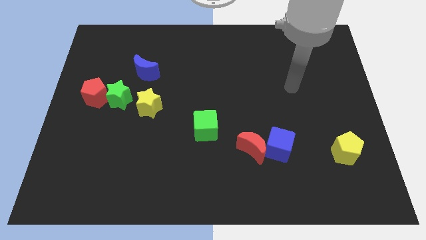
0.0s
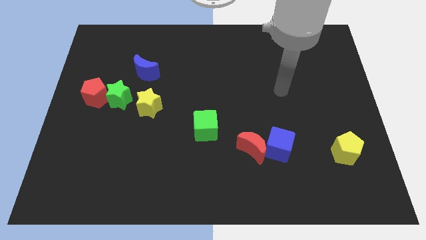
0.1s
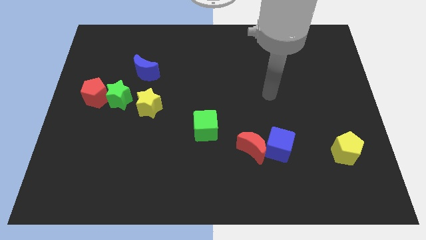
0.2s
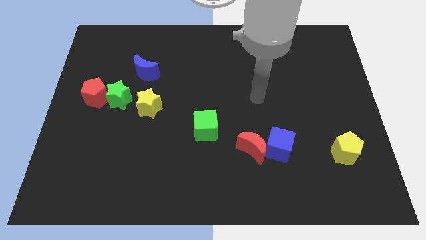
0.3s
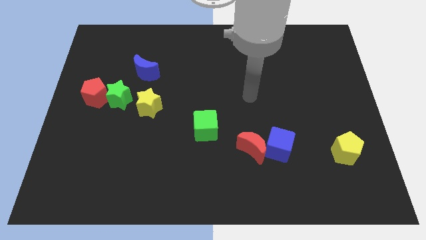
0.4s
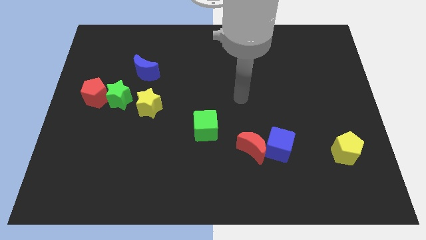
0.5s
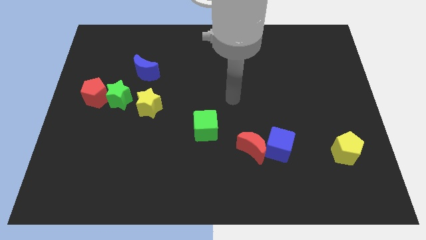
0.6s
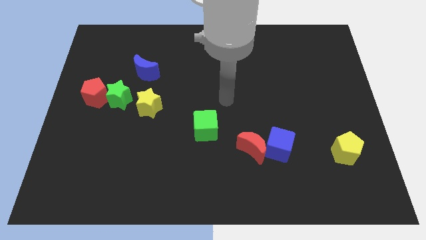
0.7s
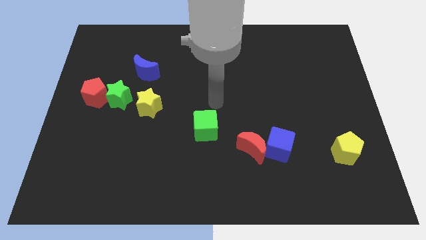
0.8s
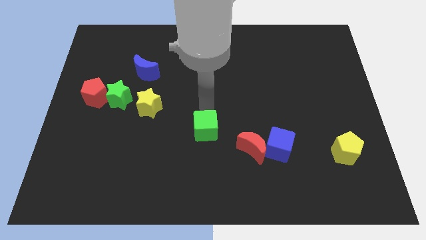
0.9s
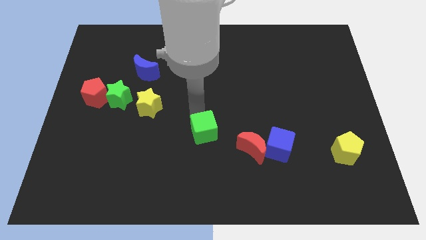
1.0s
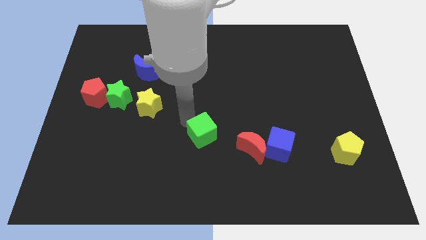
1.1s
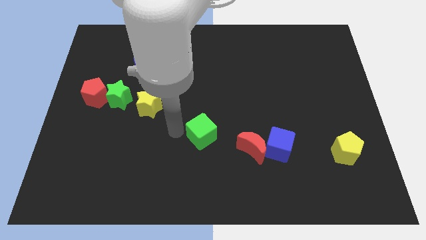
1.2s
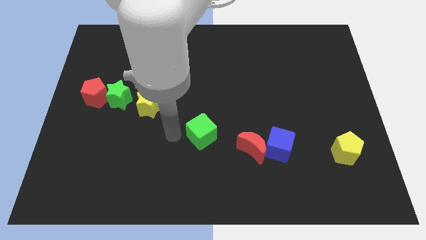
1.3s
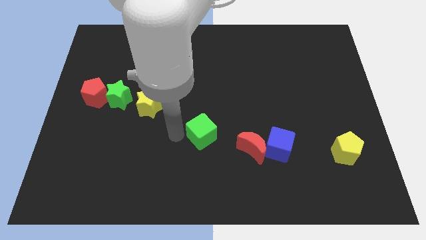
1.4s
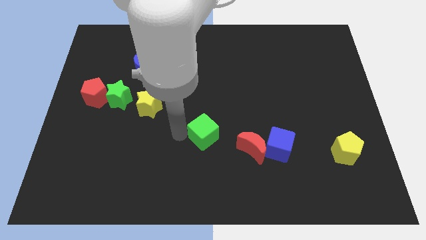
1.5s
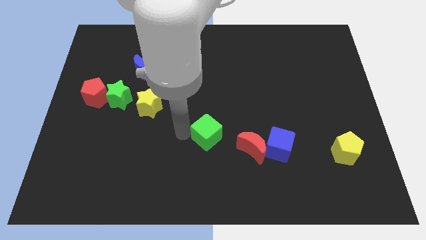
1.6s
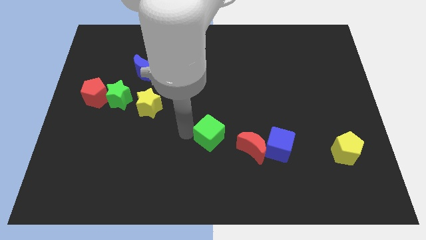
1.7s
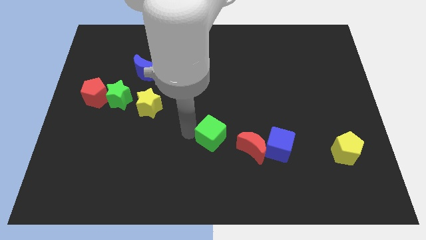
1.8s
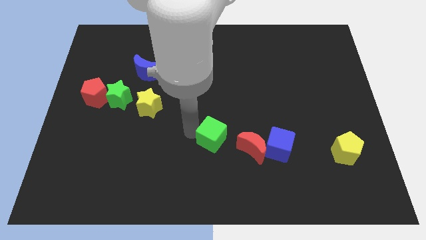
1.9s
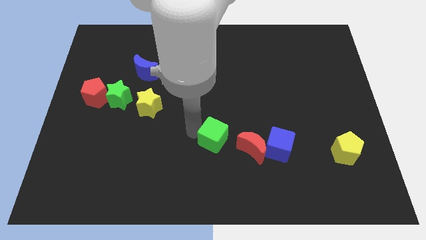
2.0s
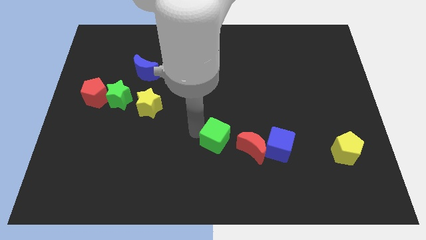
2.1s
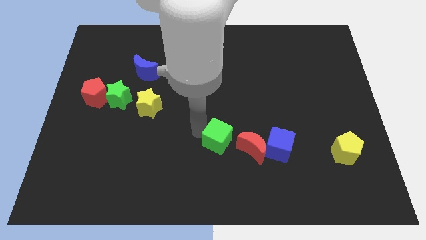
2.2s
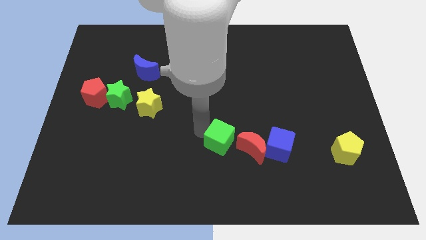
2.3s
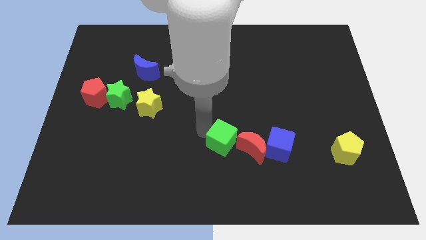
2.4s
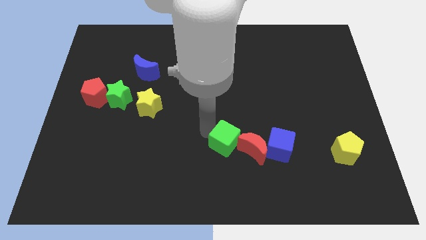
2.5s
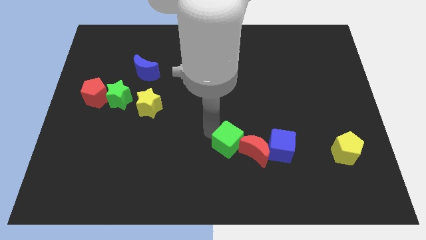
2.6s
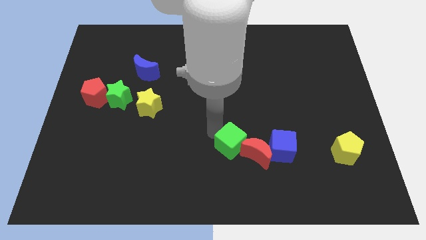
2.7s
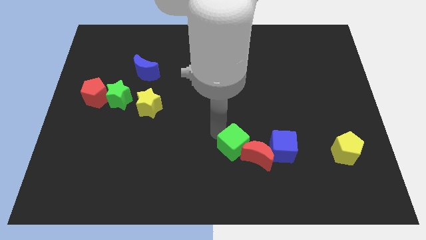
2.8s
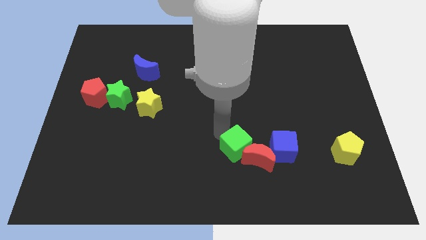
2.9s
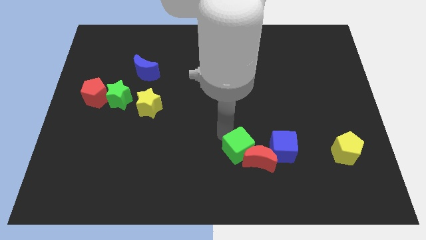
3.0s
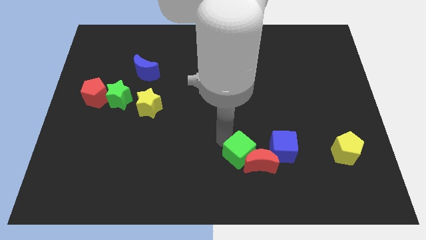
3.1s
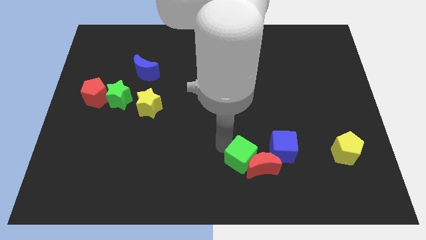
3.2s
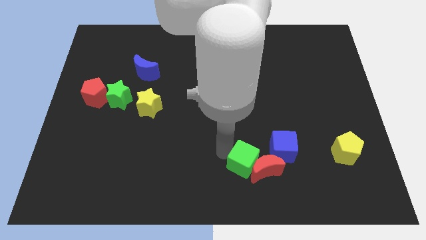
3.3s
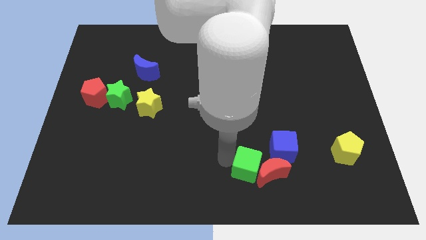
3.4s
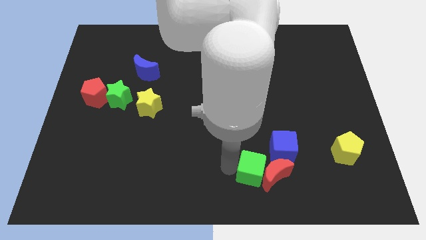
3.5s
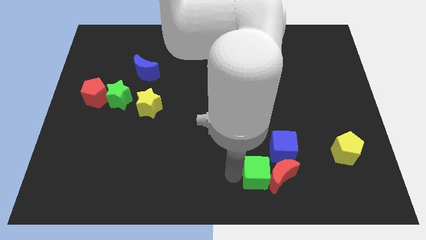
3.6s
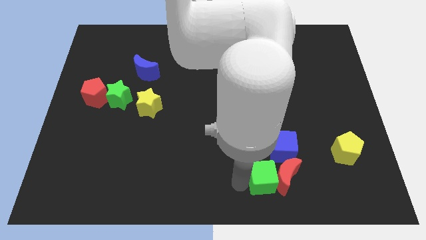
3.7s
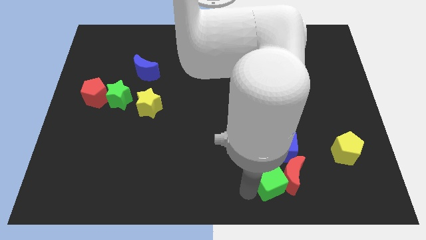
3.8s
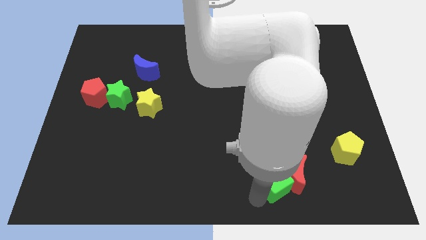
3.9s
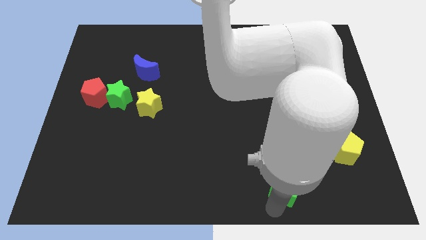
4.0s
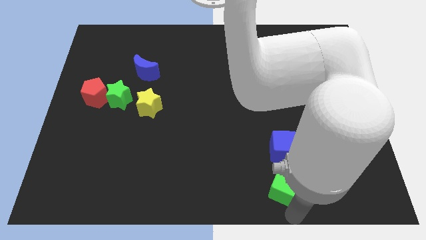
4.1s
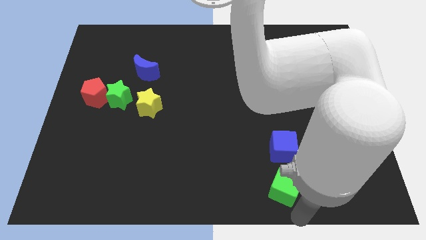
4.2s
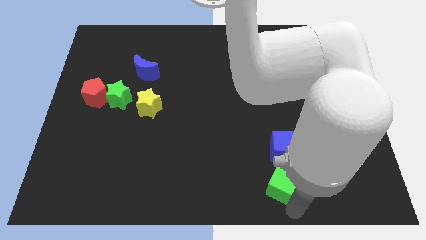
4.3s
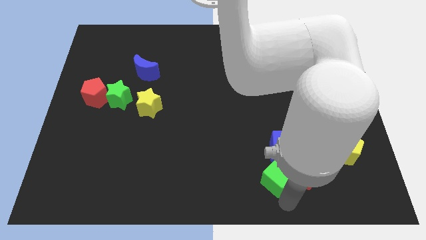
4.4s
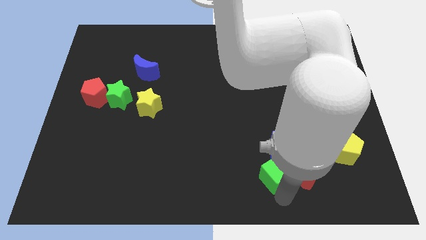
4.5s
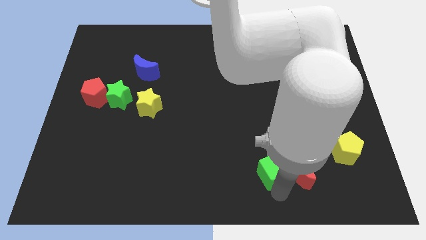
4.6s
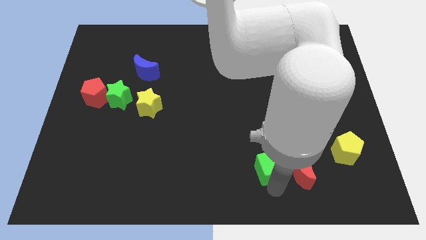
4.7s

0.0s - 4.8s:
move the green cube close to the blue cube

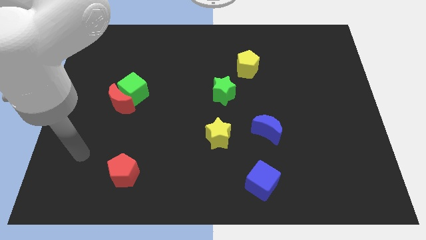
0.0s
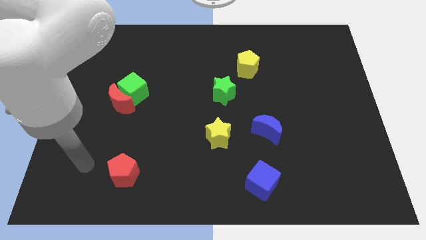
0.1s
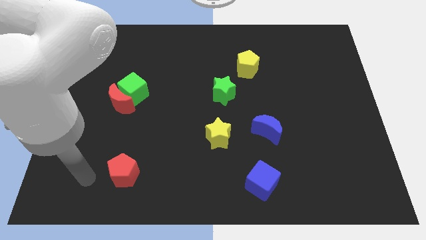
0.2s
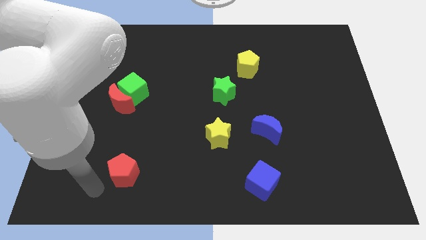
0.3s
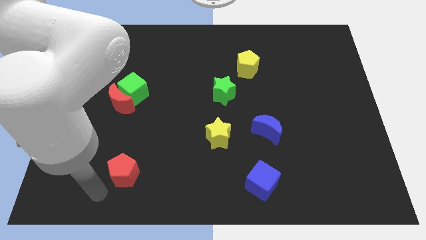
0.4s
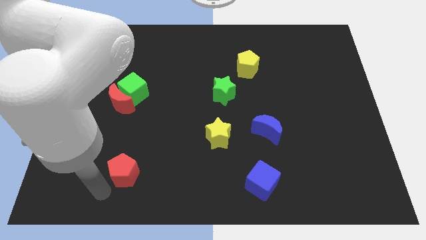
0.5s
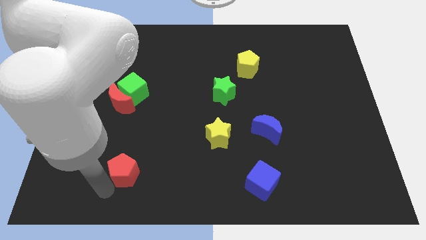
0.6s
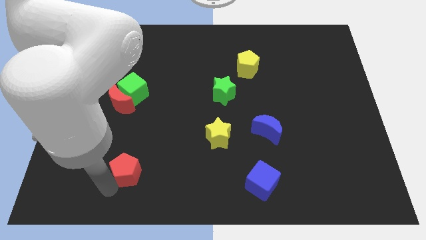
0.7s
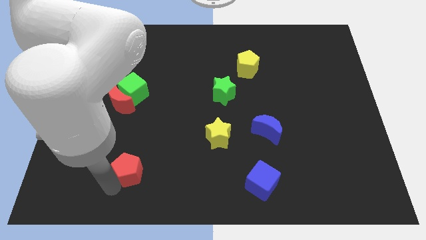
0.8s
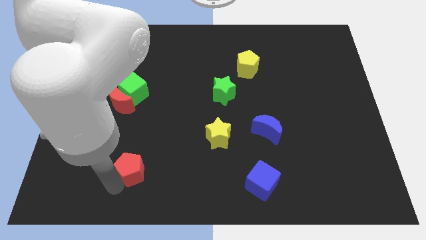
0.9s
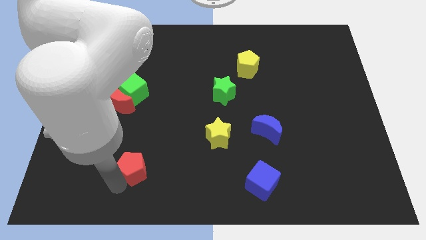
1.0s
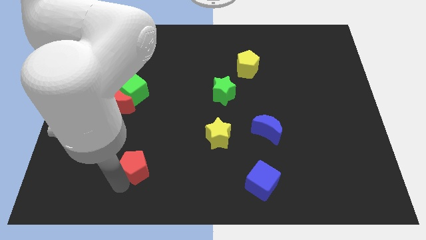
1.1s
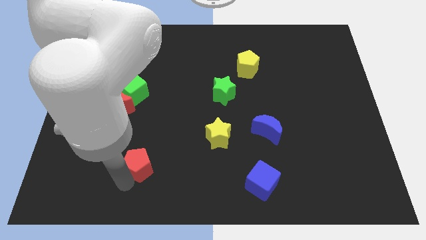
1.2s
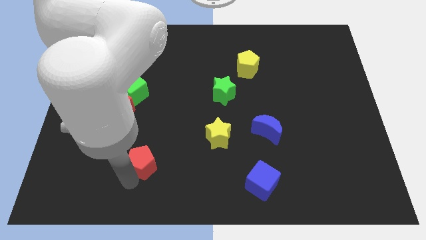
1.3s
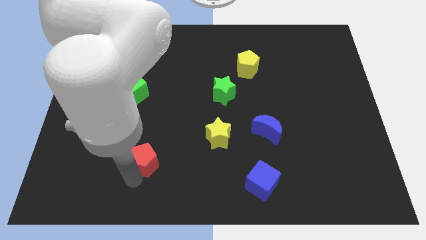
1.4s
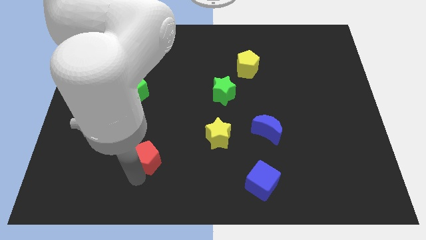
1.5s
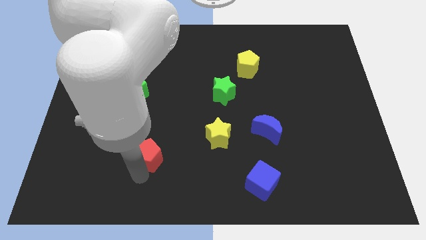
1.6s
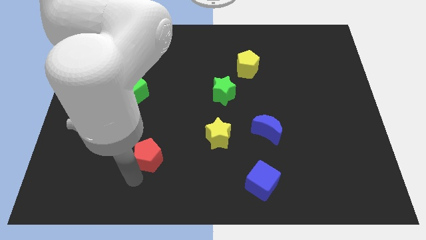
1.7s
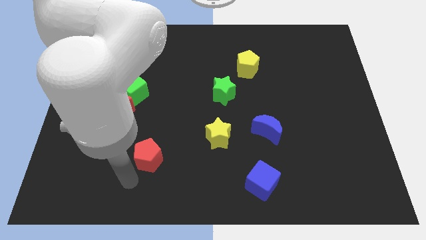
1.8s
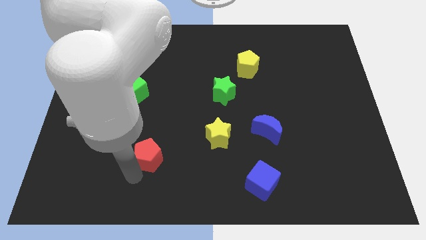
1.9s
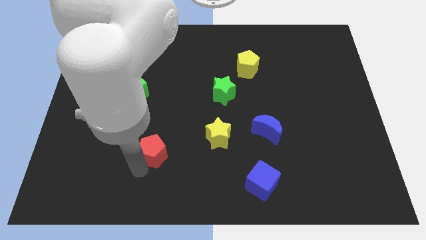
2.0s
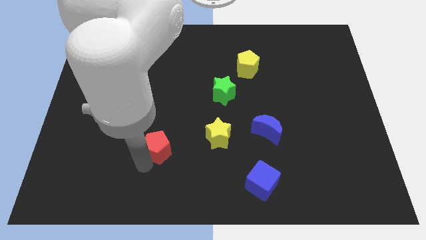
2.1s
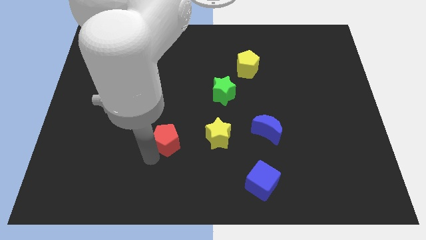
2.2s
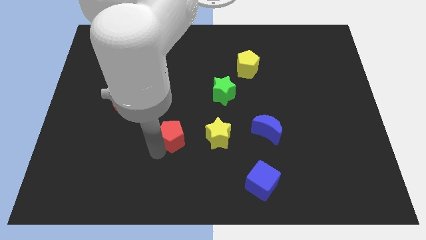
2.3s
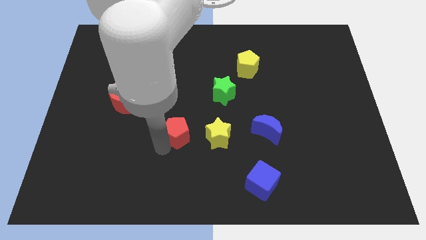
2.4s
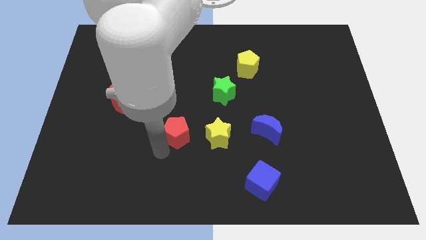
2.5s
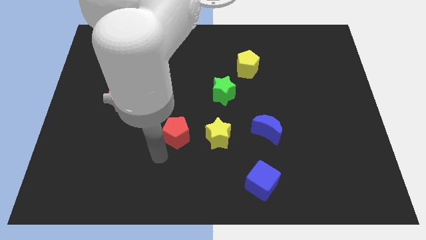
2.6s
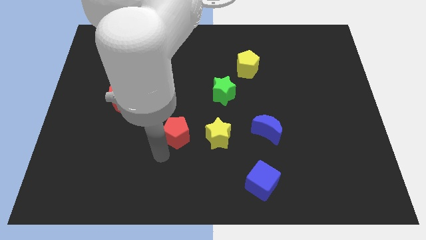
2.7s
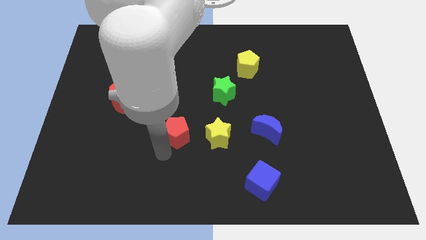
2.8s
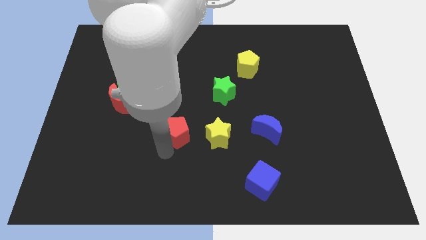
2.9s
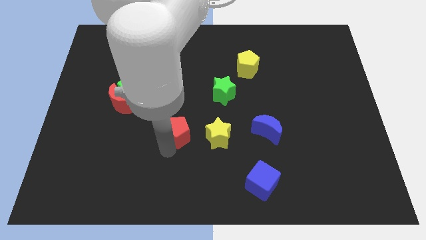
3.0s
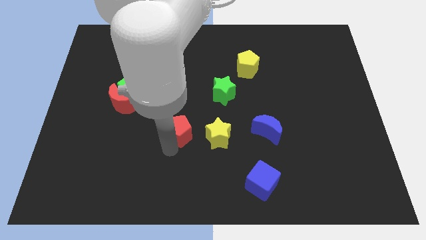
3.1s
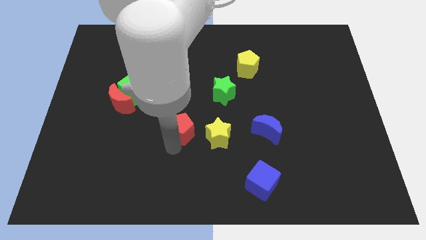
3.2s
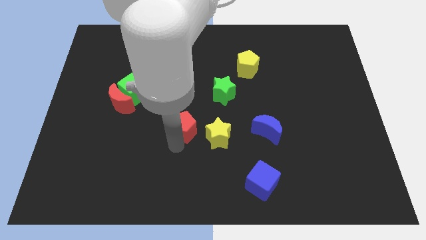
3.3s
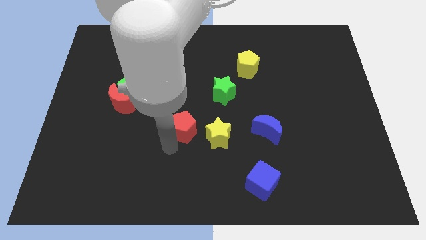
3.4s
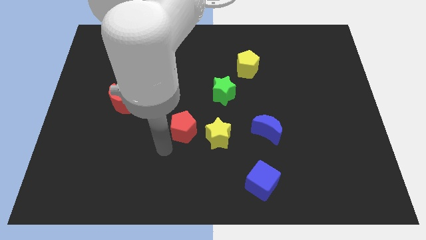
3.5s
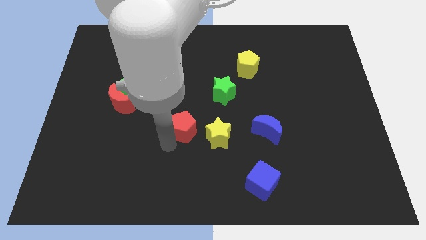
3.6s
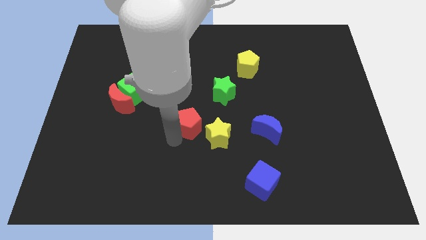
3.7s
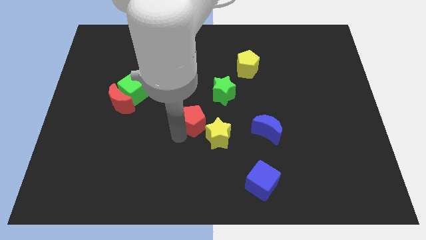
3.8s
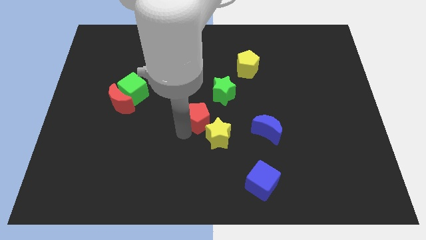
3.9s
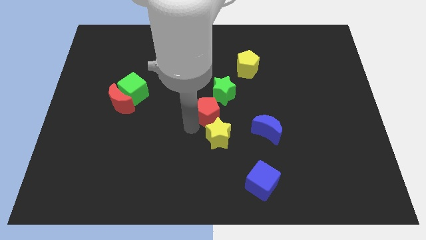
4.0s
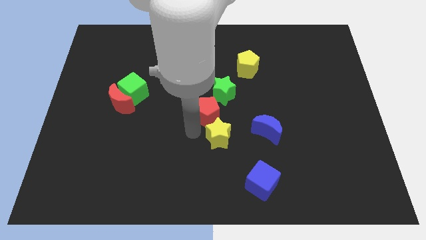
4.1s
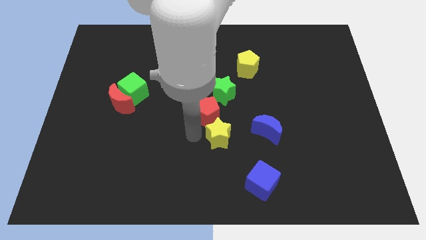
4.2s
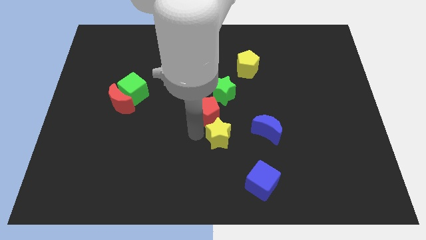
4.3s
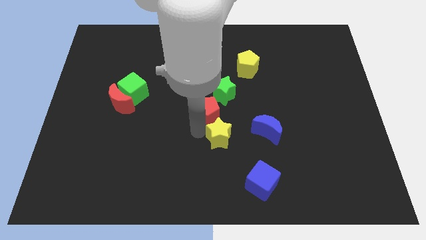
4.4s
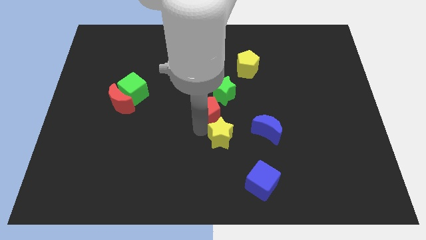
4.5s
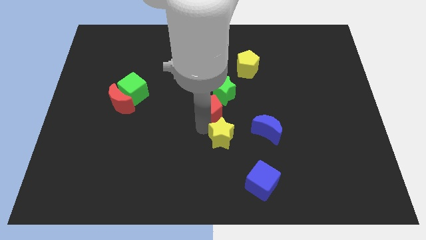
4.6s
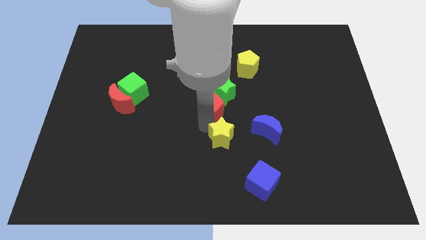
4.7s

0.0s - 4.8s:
move the red pentagon next to the green star
